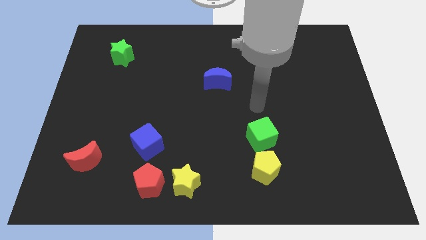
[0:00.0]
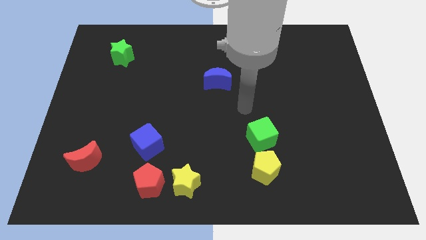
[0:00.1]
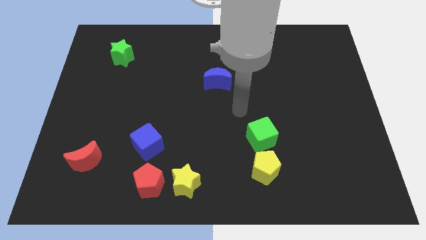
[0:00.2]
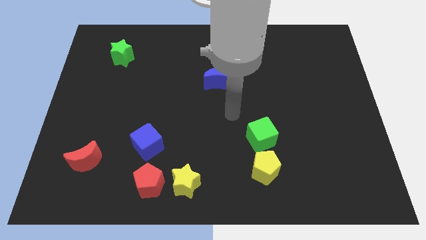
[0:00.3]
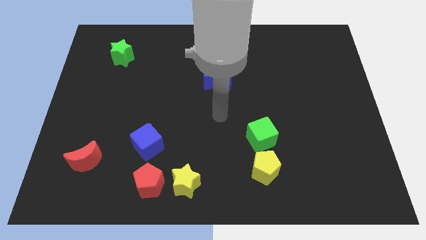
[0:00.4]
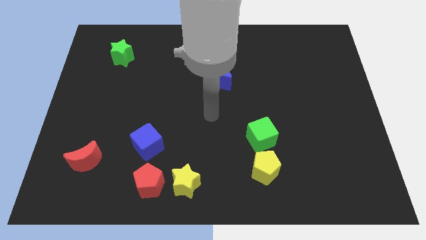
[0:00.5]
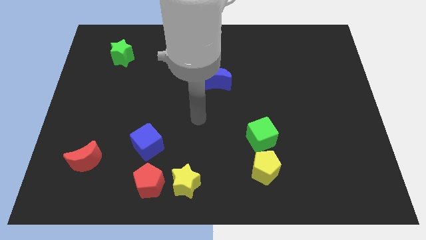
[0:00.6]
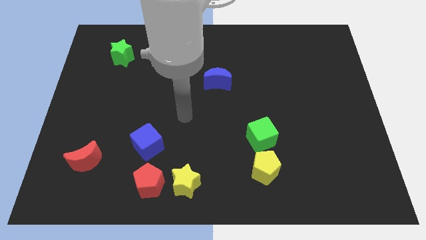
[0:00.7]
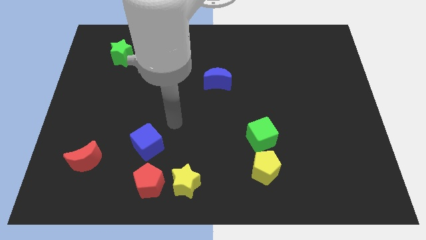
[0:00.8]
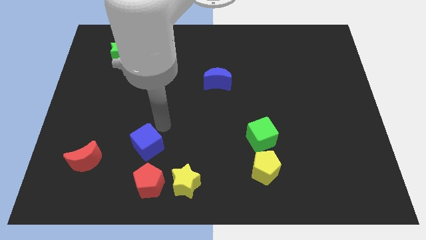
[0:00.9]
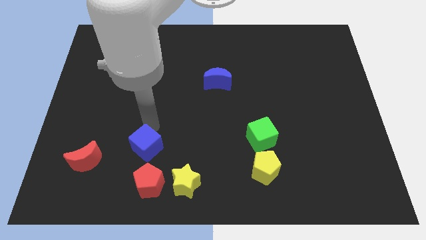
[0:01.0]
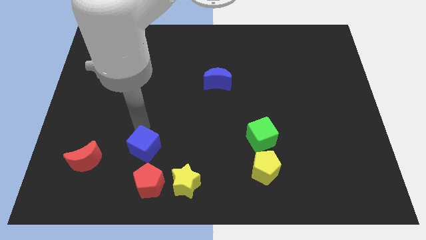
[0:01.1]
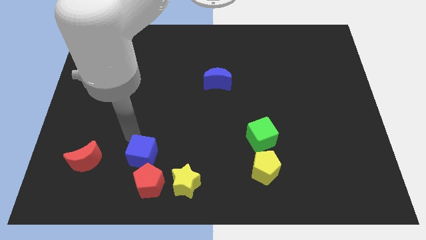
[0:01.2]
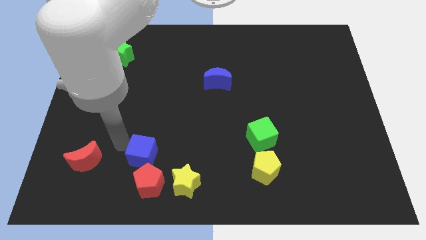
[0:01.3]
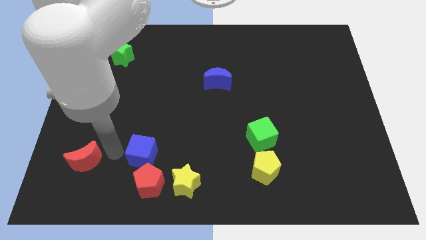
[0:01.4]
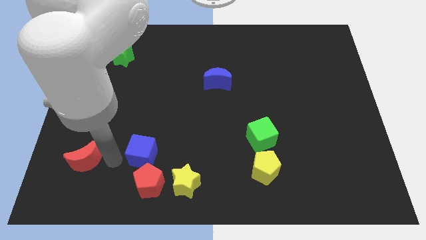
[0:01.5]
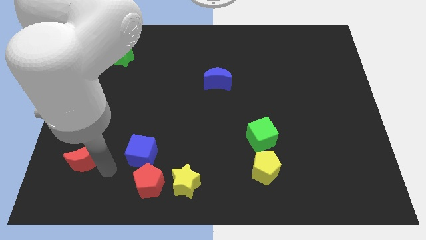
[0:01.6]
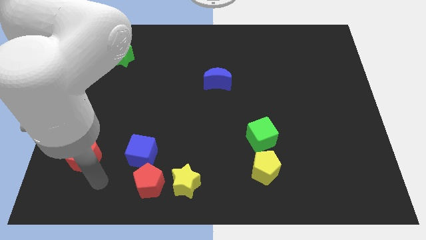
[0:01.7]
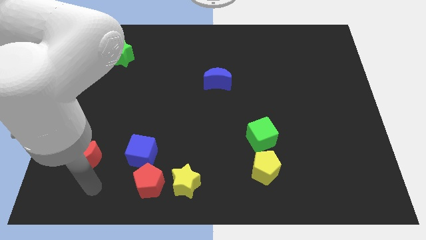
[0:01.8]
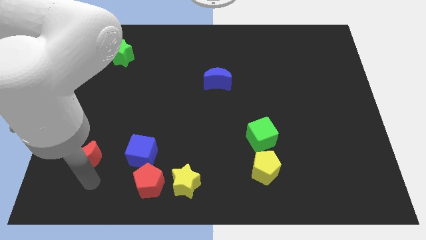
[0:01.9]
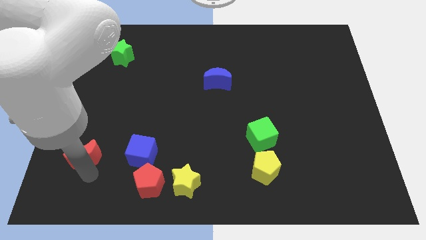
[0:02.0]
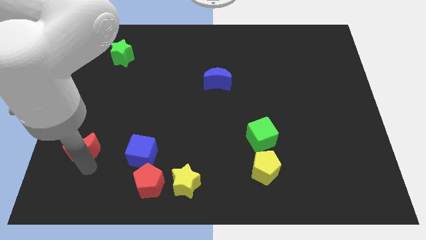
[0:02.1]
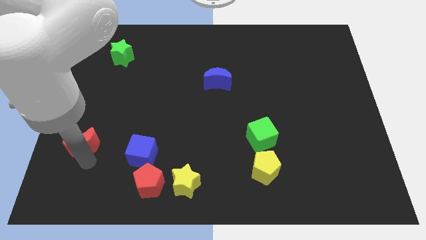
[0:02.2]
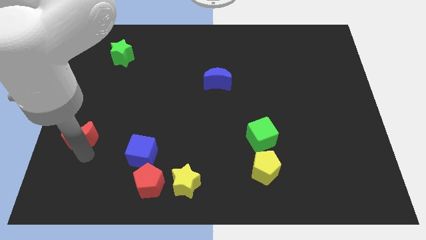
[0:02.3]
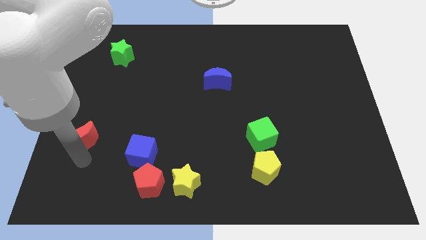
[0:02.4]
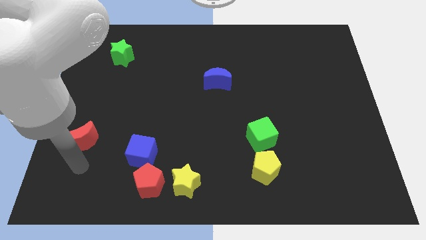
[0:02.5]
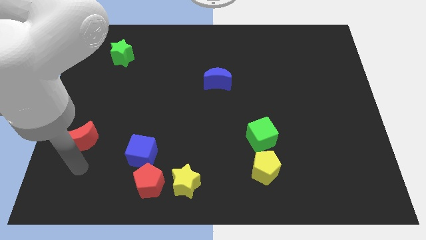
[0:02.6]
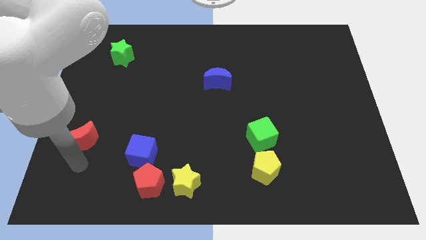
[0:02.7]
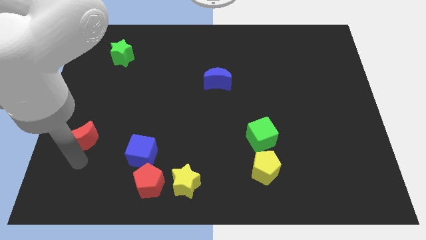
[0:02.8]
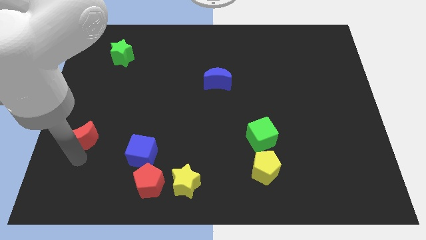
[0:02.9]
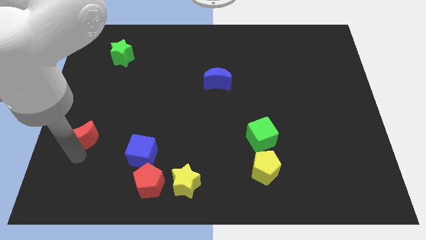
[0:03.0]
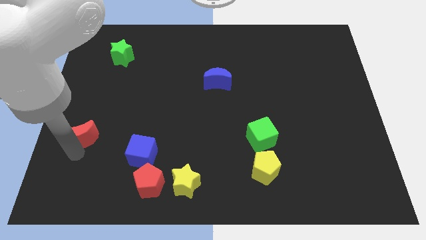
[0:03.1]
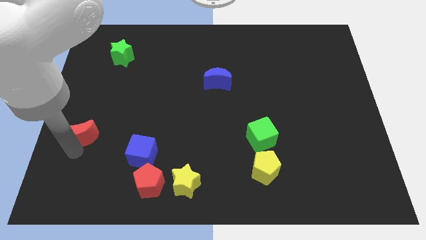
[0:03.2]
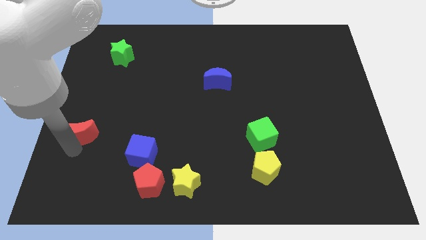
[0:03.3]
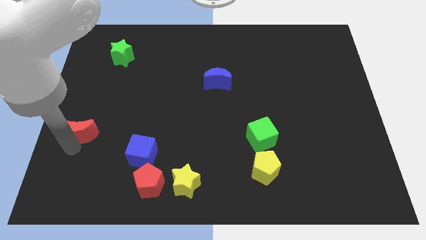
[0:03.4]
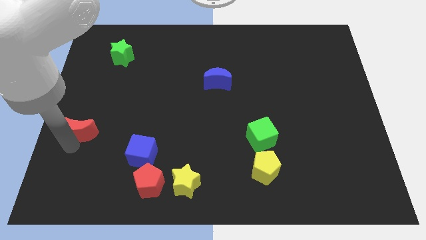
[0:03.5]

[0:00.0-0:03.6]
push the red moon upwards a little bit

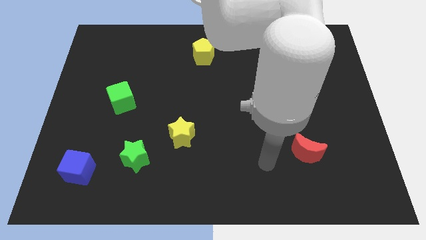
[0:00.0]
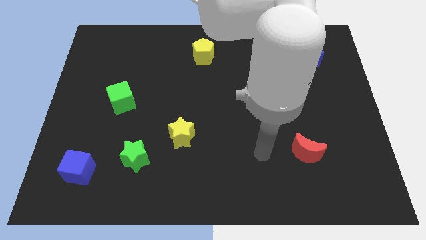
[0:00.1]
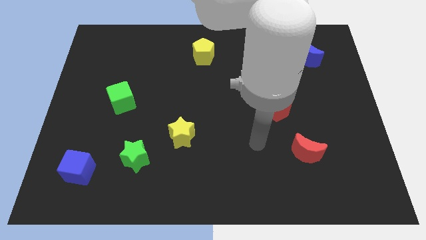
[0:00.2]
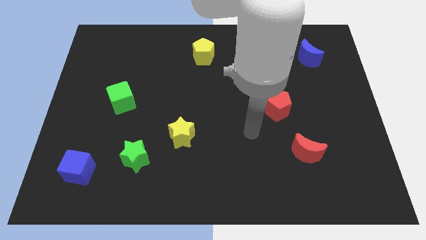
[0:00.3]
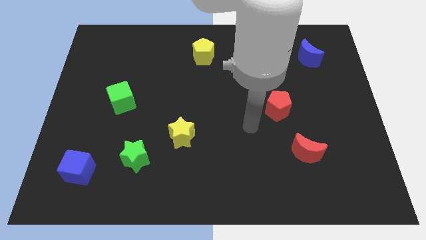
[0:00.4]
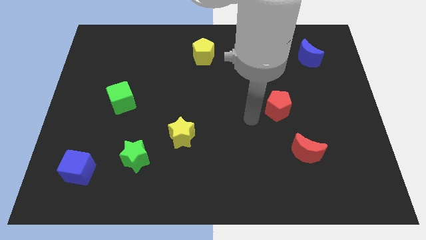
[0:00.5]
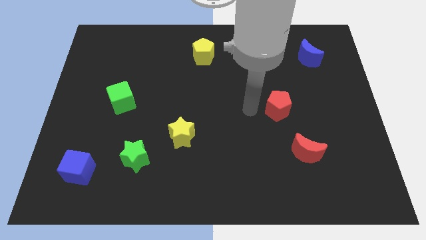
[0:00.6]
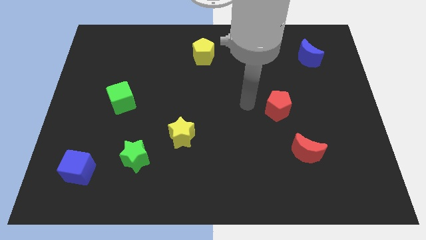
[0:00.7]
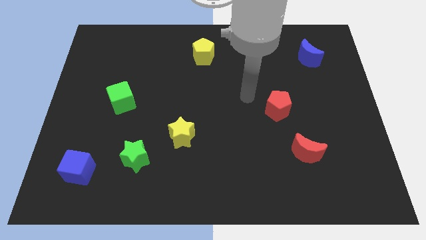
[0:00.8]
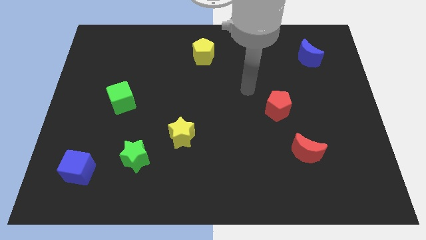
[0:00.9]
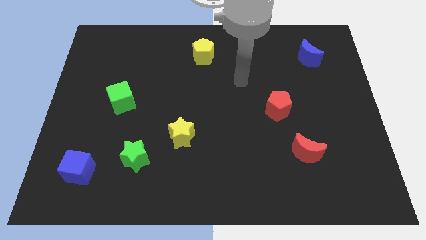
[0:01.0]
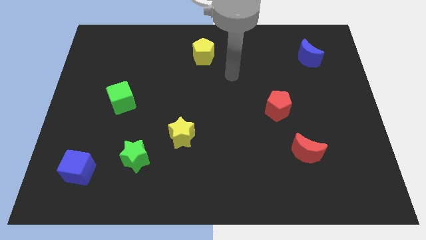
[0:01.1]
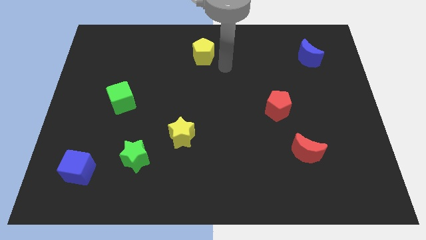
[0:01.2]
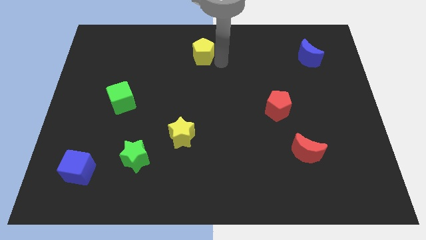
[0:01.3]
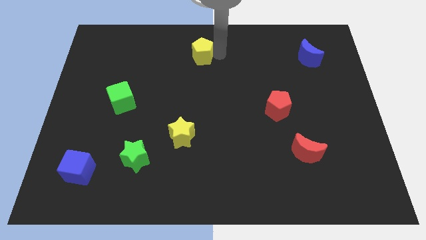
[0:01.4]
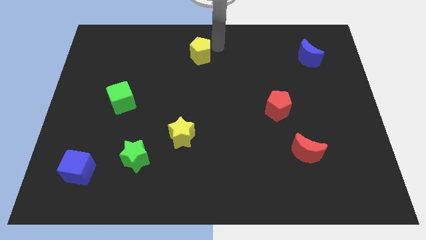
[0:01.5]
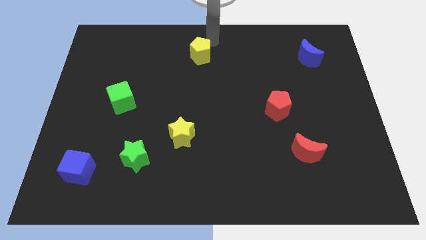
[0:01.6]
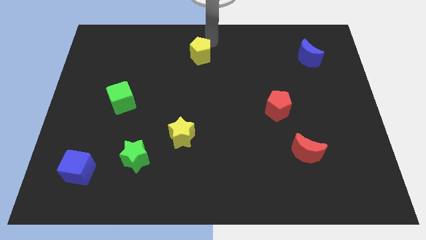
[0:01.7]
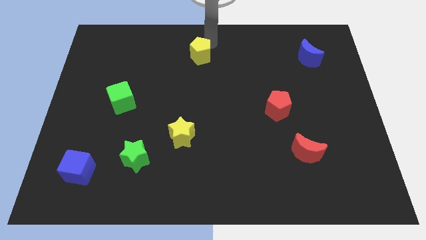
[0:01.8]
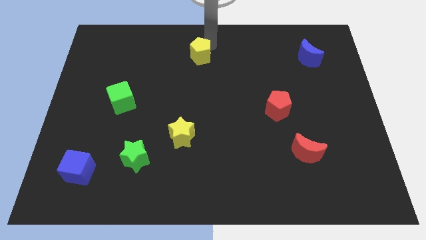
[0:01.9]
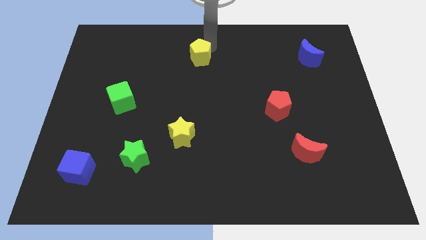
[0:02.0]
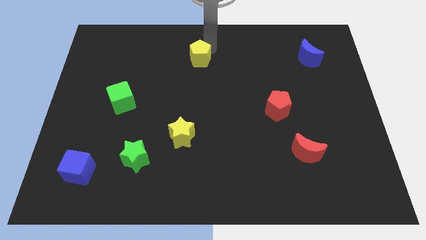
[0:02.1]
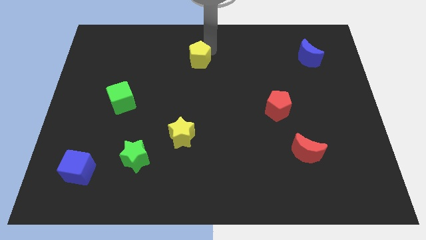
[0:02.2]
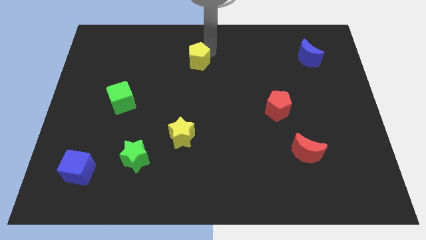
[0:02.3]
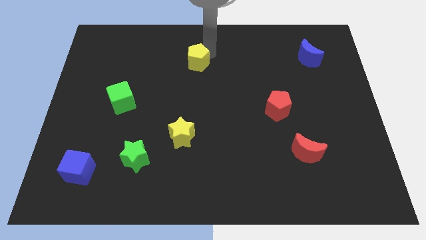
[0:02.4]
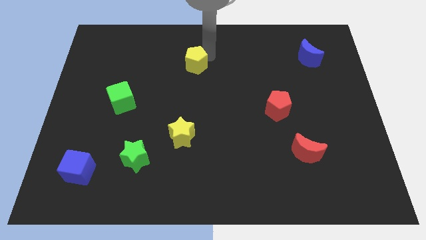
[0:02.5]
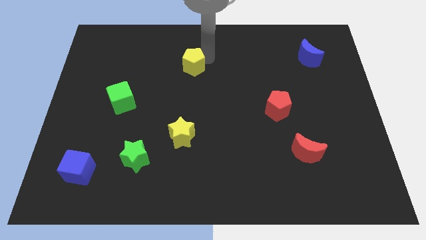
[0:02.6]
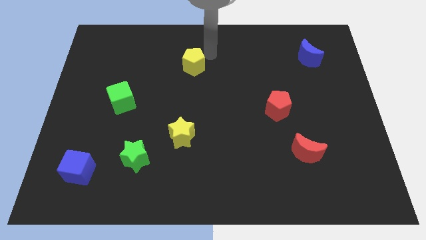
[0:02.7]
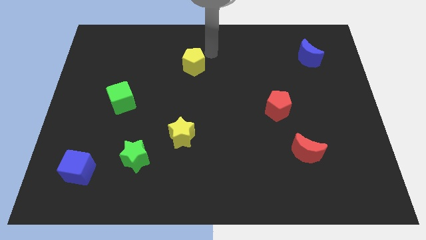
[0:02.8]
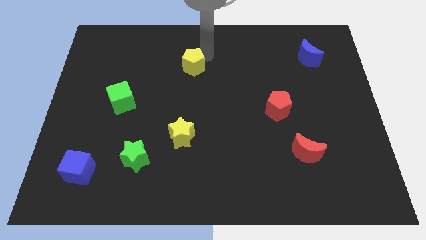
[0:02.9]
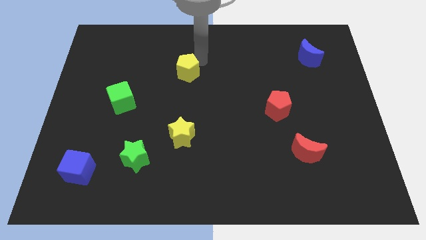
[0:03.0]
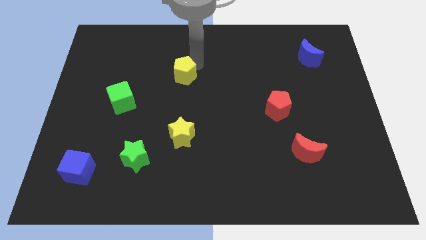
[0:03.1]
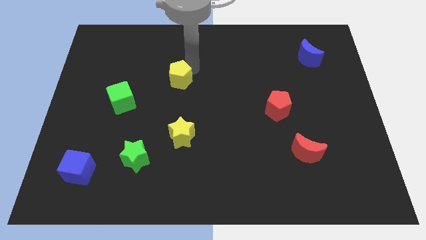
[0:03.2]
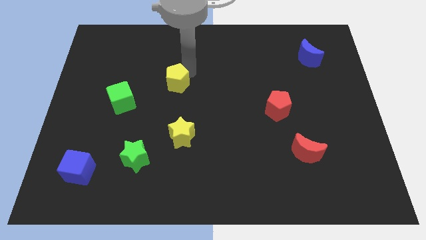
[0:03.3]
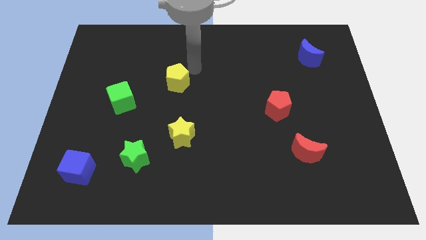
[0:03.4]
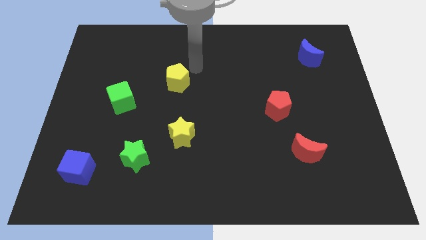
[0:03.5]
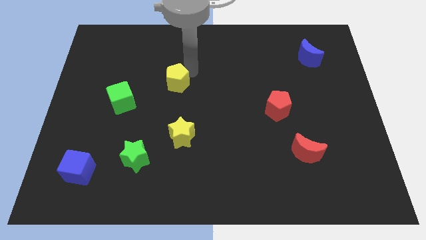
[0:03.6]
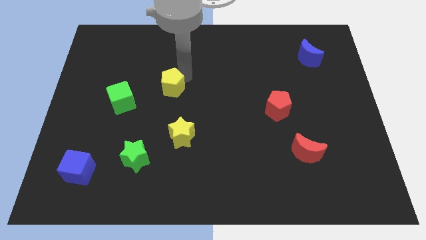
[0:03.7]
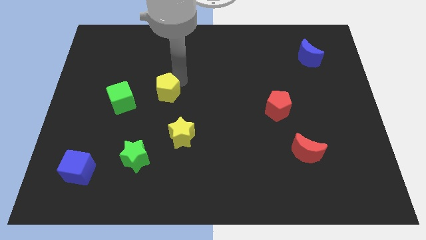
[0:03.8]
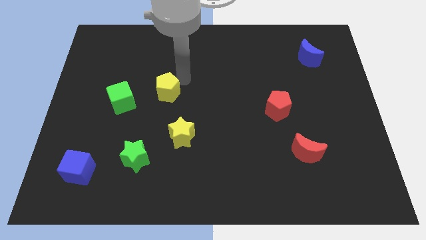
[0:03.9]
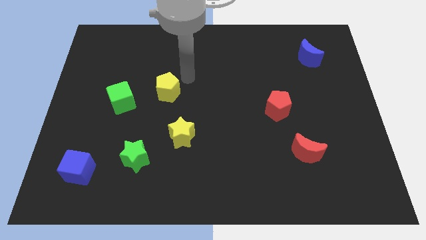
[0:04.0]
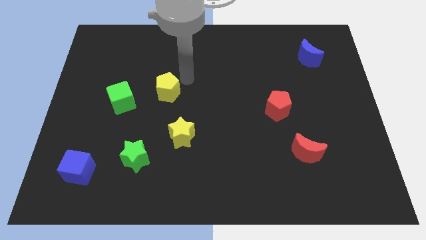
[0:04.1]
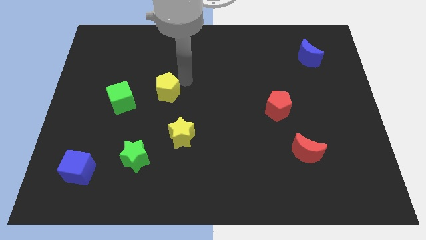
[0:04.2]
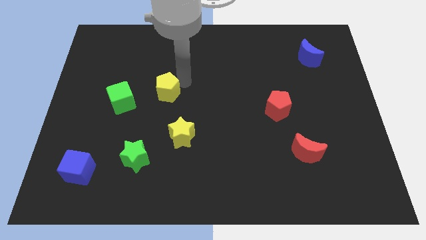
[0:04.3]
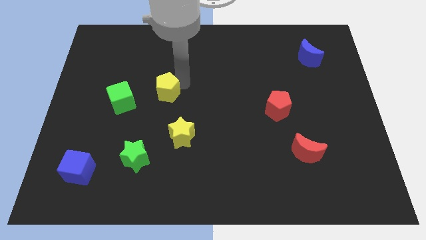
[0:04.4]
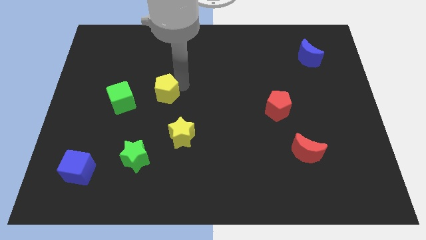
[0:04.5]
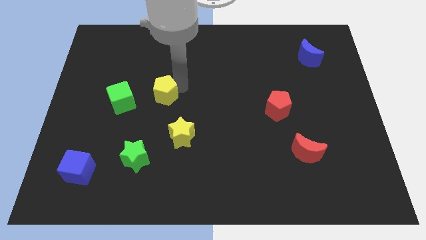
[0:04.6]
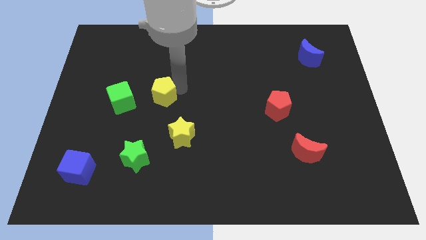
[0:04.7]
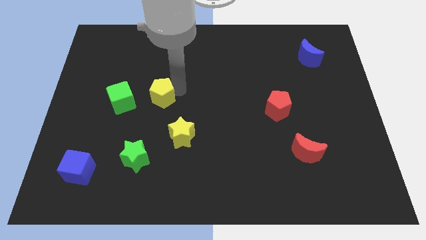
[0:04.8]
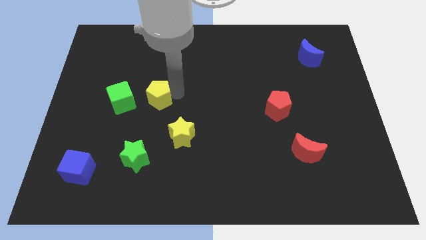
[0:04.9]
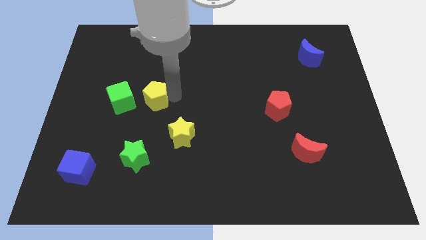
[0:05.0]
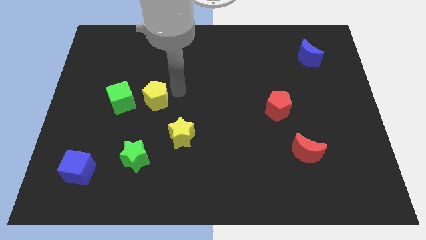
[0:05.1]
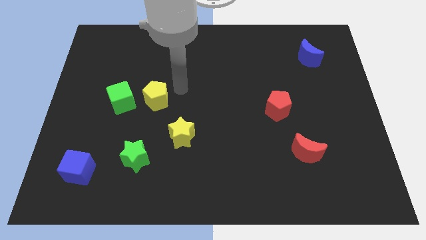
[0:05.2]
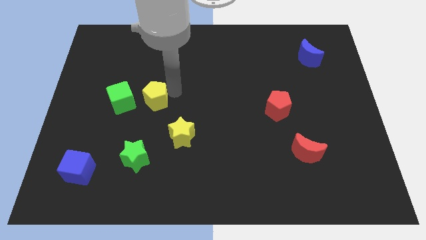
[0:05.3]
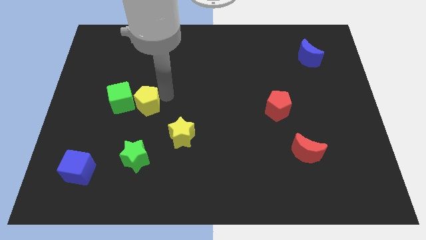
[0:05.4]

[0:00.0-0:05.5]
move the yellow pentagon diagonally down and to the left
